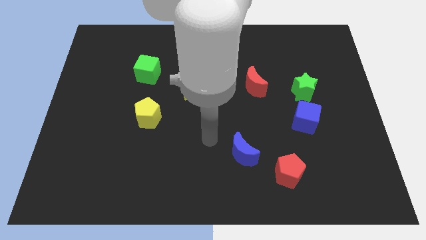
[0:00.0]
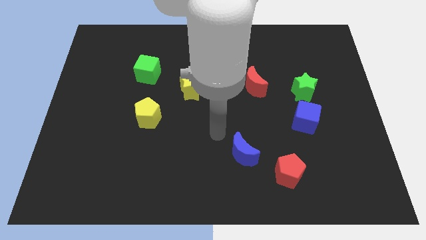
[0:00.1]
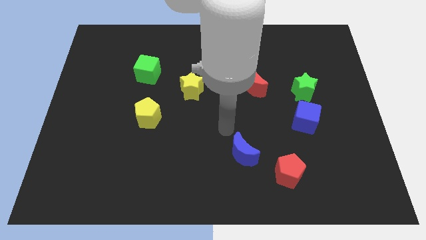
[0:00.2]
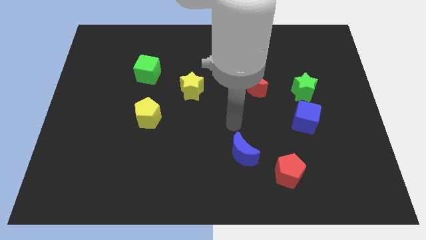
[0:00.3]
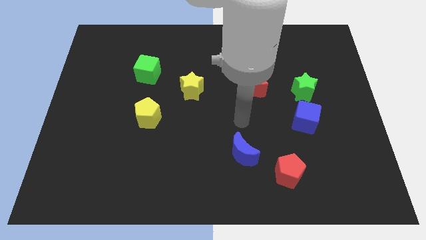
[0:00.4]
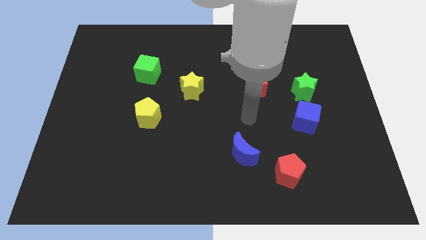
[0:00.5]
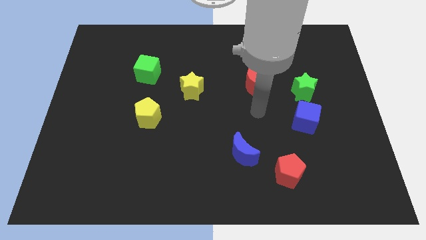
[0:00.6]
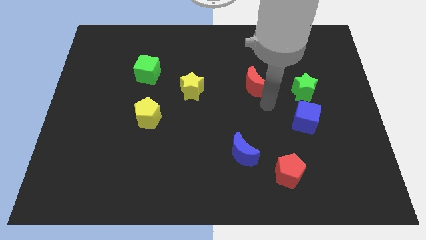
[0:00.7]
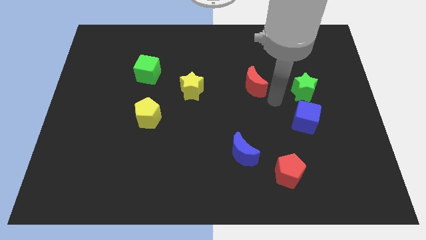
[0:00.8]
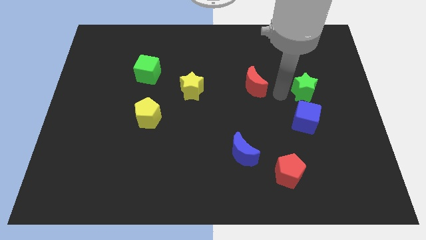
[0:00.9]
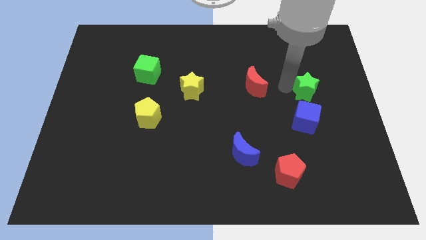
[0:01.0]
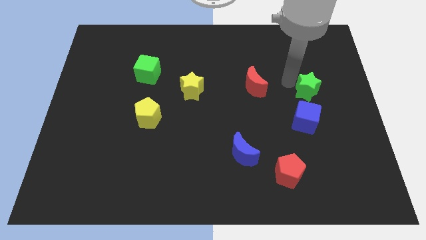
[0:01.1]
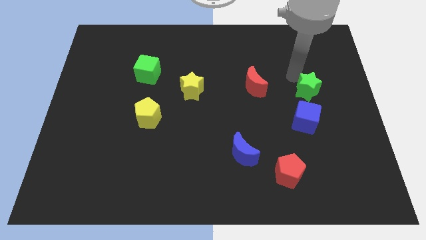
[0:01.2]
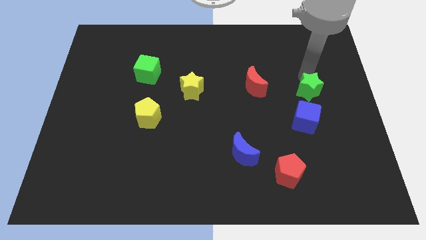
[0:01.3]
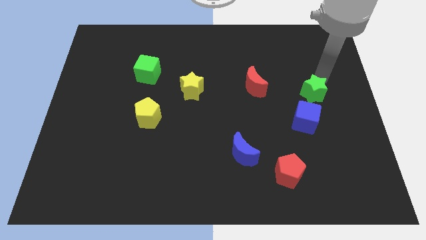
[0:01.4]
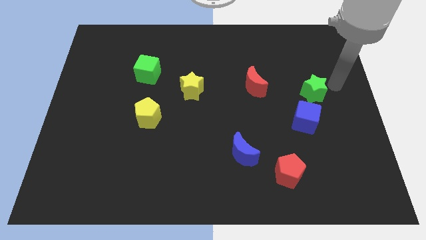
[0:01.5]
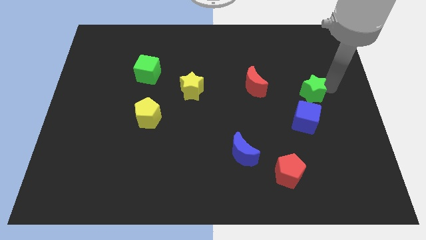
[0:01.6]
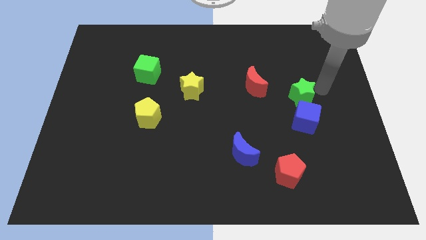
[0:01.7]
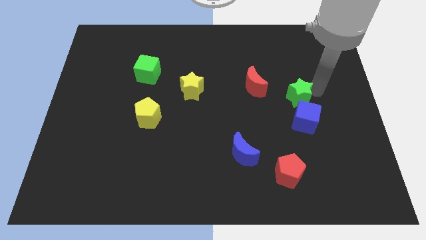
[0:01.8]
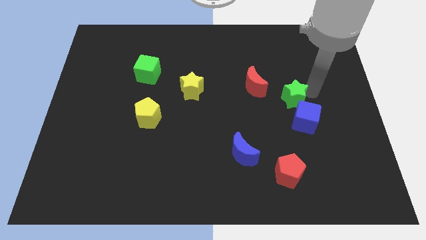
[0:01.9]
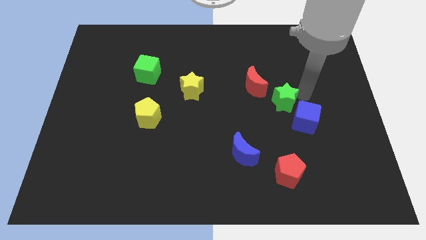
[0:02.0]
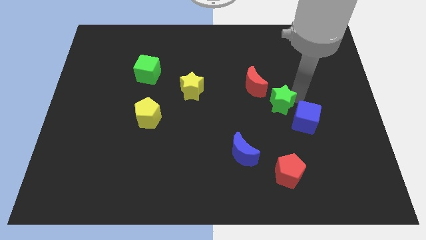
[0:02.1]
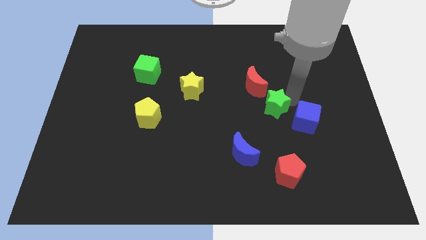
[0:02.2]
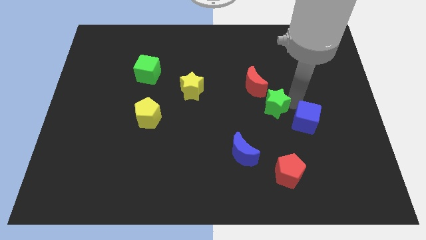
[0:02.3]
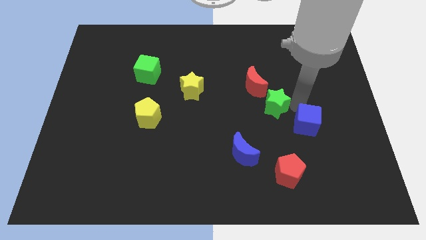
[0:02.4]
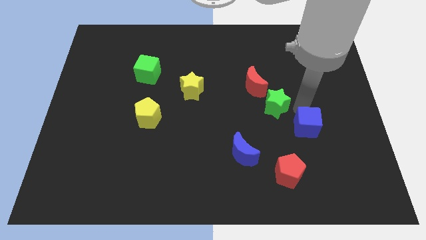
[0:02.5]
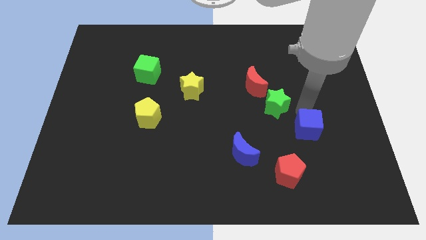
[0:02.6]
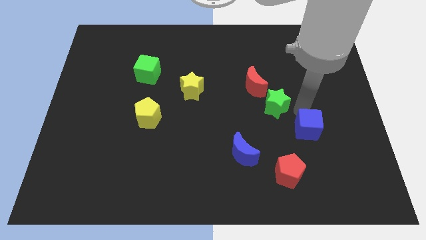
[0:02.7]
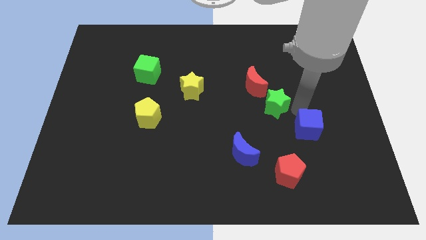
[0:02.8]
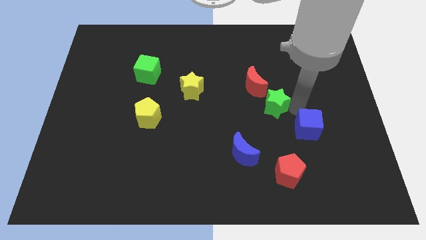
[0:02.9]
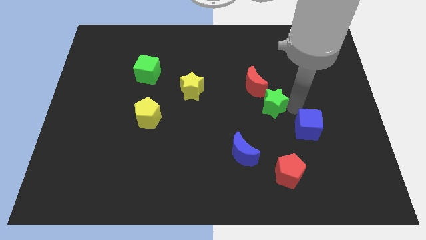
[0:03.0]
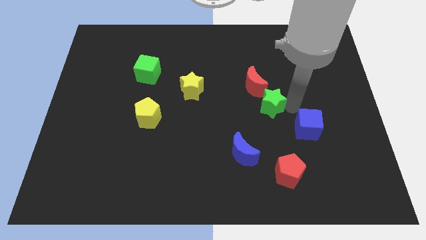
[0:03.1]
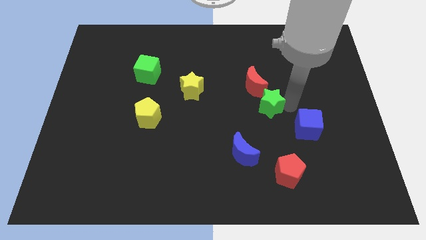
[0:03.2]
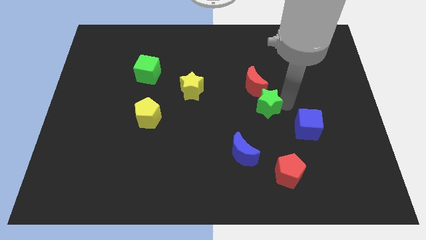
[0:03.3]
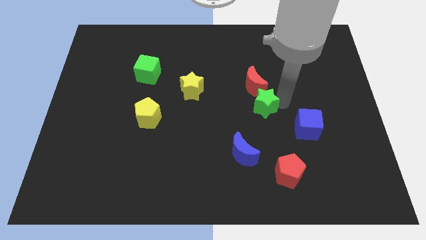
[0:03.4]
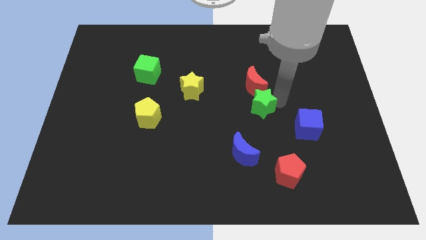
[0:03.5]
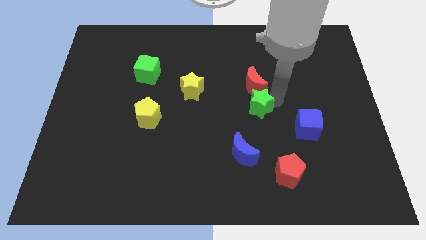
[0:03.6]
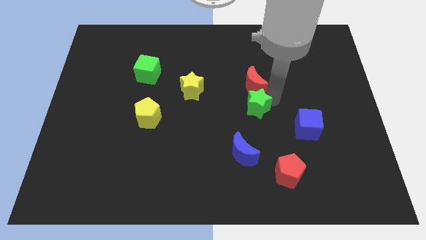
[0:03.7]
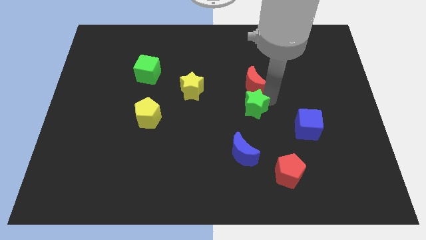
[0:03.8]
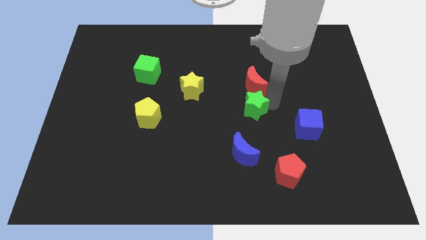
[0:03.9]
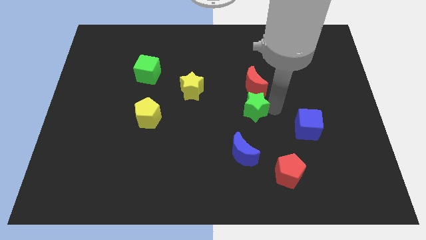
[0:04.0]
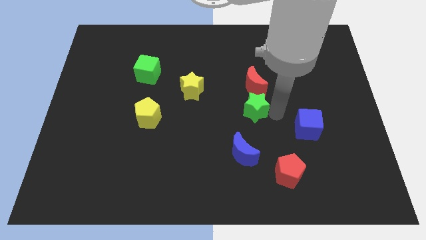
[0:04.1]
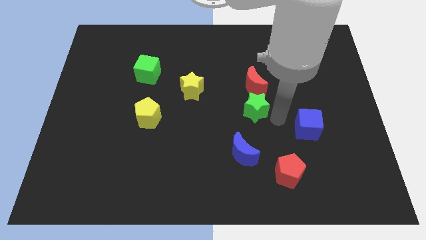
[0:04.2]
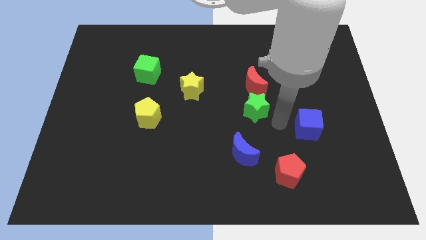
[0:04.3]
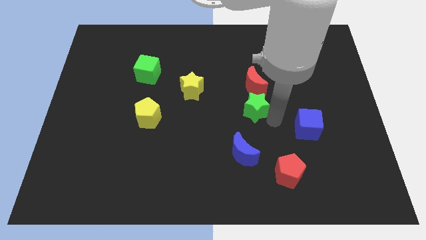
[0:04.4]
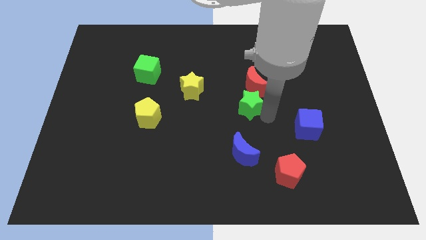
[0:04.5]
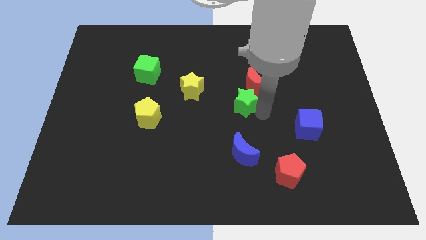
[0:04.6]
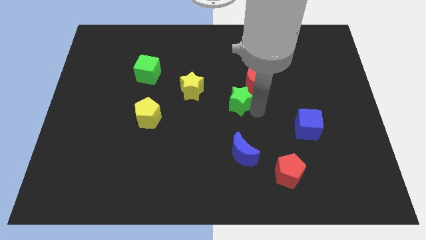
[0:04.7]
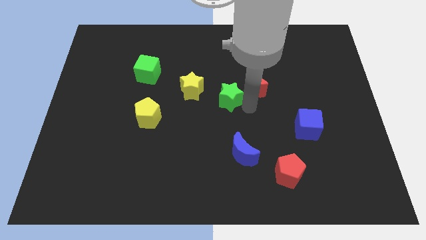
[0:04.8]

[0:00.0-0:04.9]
push the green star left of the red moon

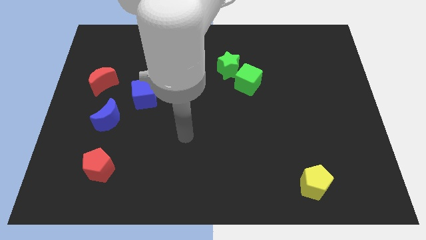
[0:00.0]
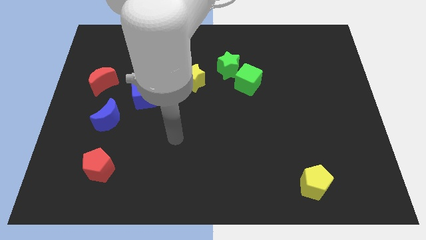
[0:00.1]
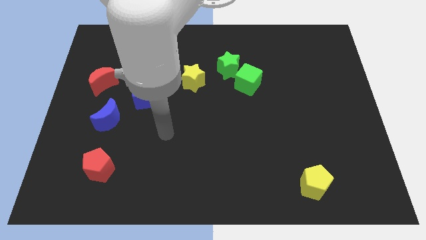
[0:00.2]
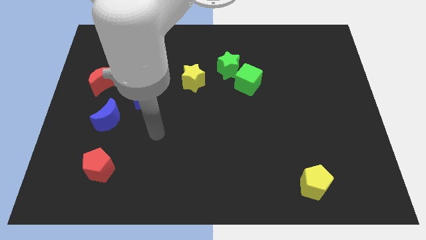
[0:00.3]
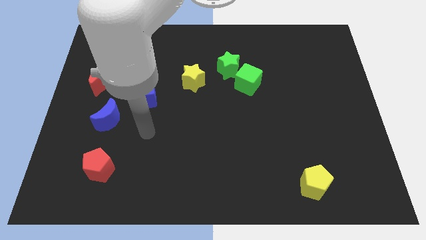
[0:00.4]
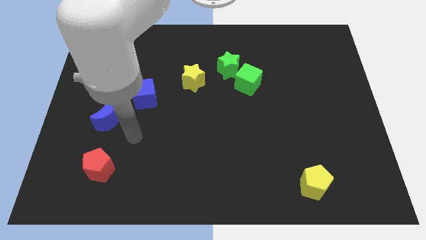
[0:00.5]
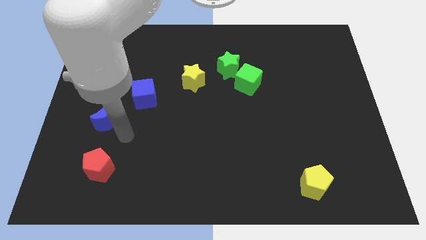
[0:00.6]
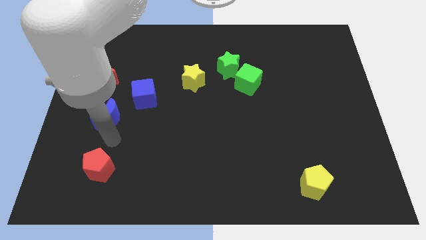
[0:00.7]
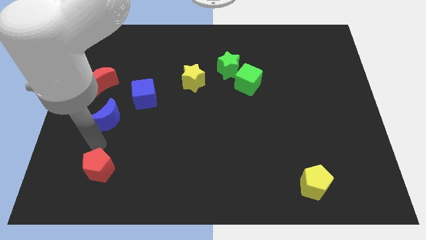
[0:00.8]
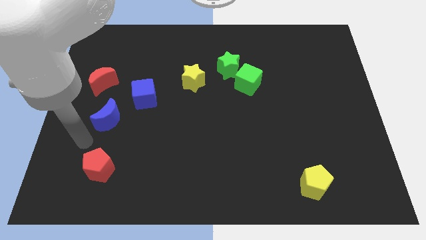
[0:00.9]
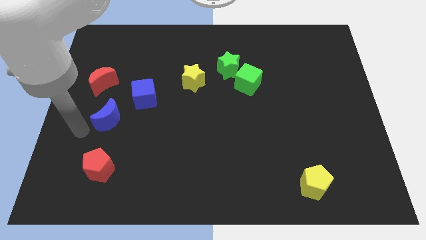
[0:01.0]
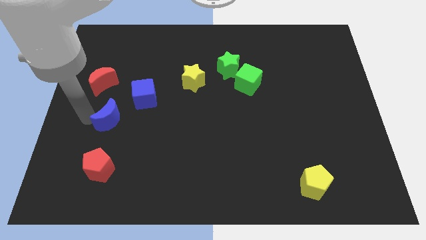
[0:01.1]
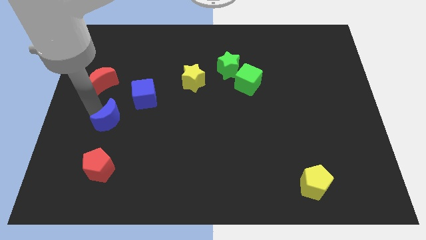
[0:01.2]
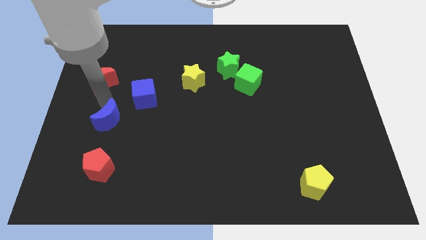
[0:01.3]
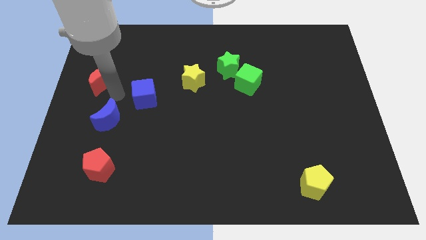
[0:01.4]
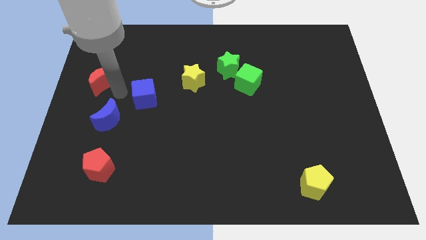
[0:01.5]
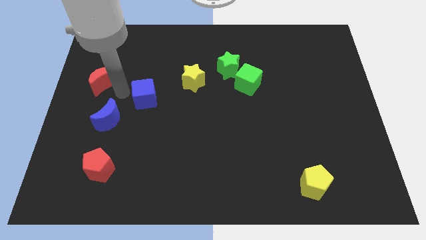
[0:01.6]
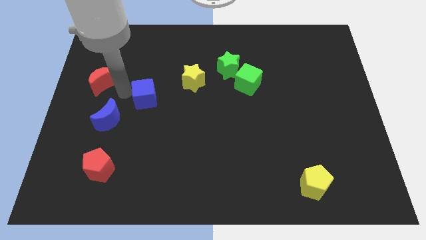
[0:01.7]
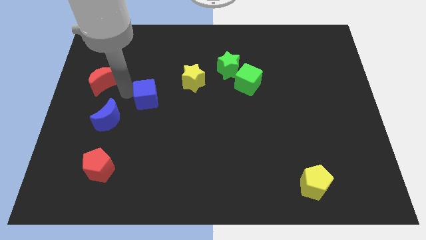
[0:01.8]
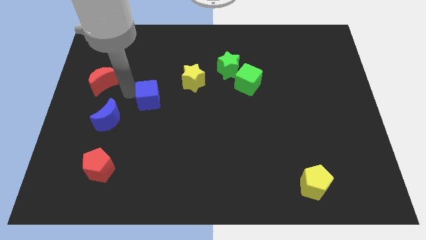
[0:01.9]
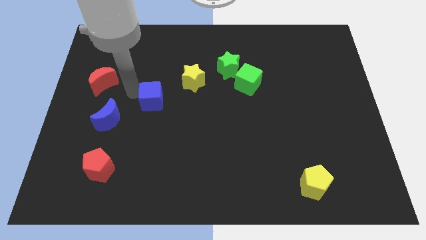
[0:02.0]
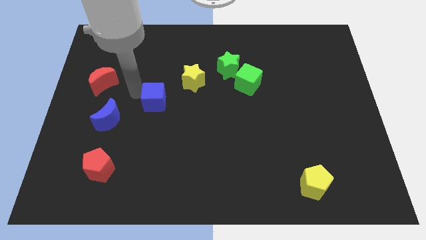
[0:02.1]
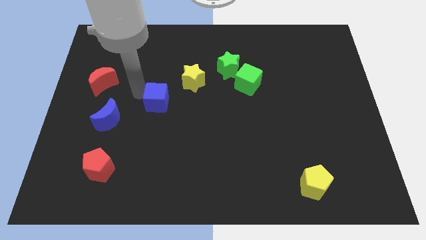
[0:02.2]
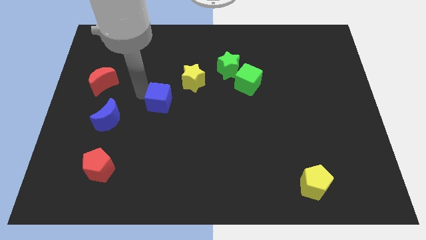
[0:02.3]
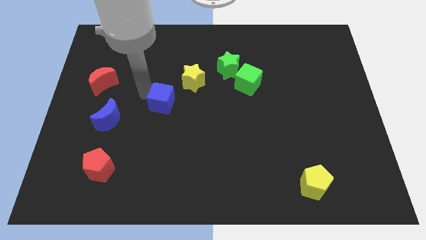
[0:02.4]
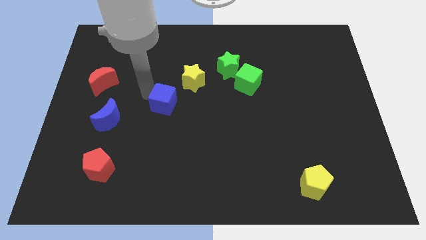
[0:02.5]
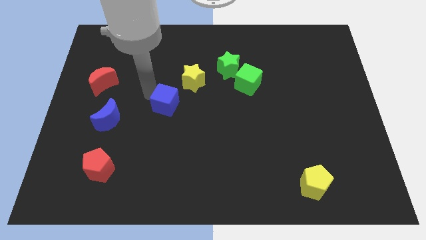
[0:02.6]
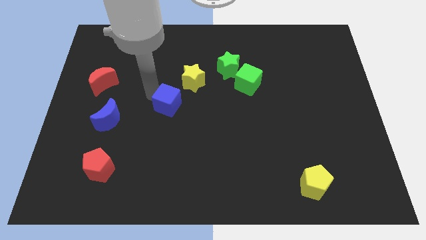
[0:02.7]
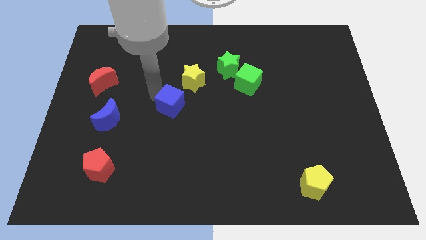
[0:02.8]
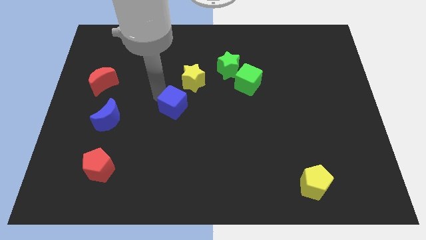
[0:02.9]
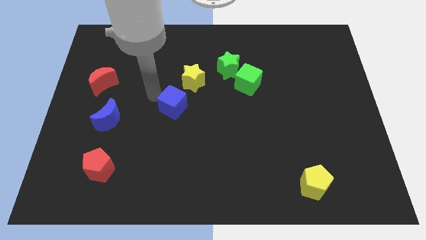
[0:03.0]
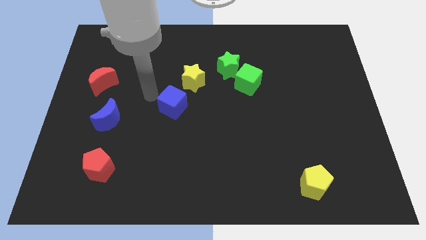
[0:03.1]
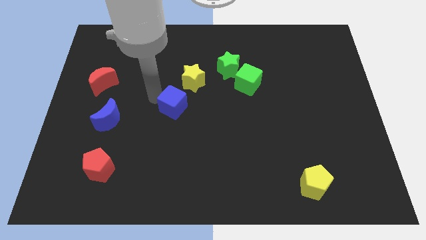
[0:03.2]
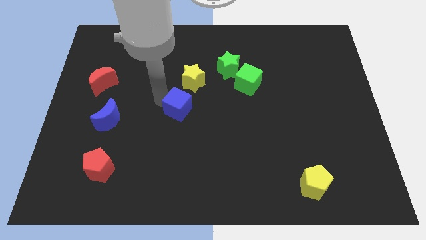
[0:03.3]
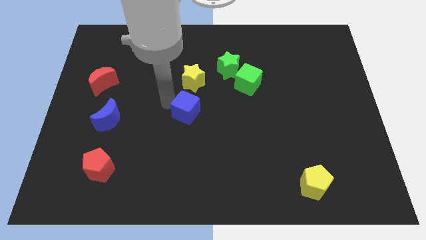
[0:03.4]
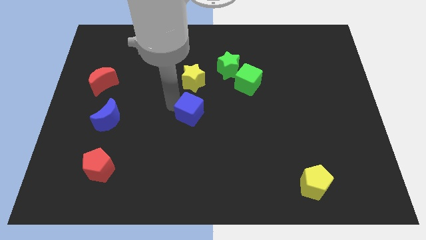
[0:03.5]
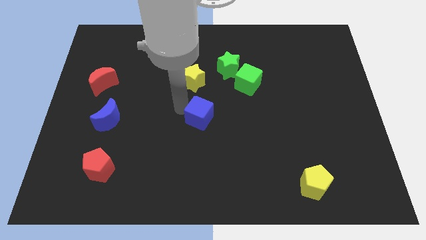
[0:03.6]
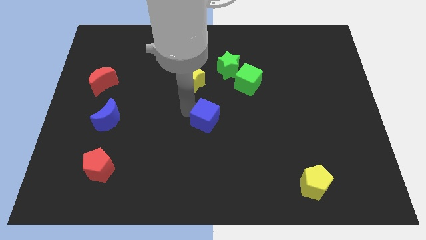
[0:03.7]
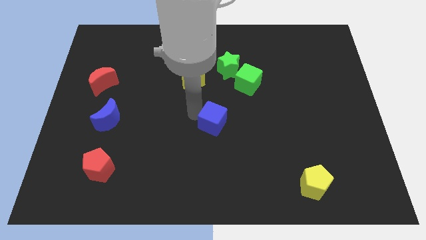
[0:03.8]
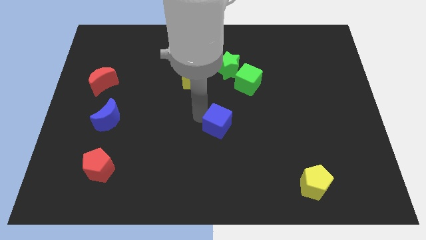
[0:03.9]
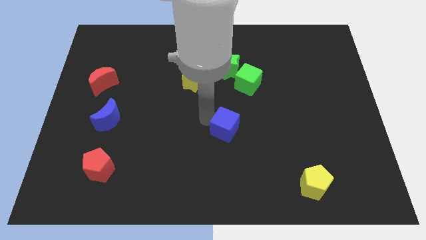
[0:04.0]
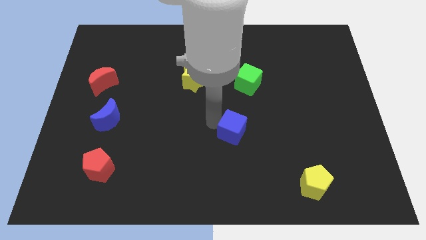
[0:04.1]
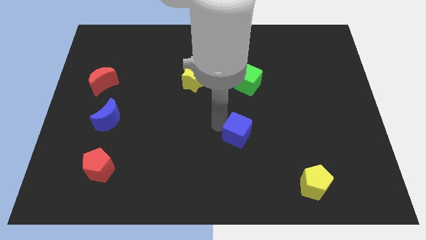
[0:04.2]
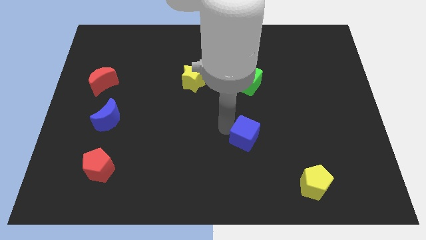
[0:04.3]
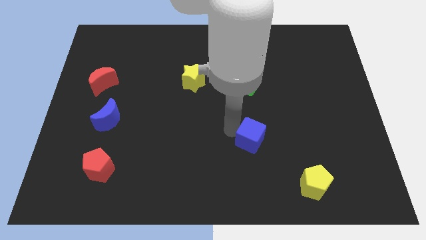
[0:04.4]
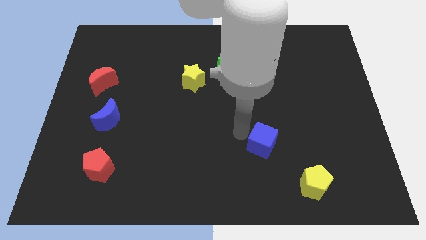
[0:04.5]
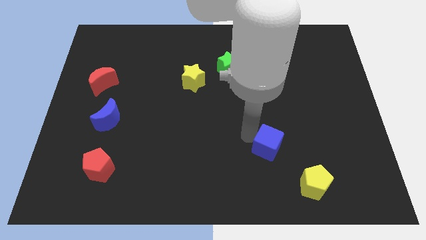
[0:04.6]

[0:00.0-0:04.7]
slide the blue cube diagonally up and to the left of the yellow pentagon
